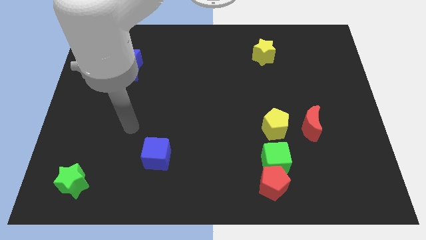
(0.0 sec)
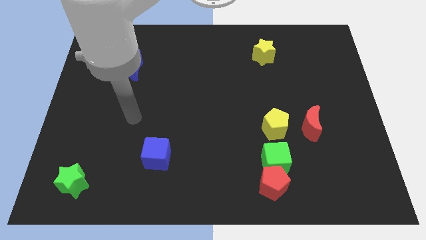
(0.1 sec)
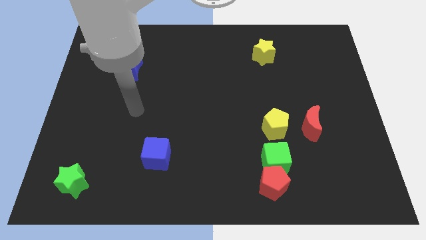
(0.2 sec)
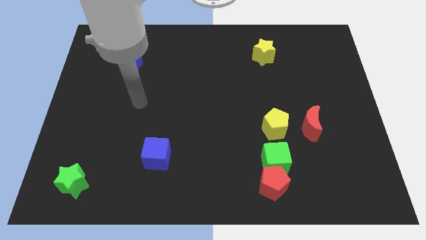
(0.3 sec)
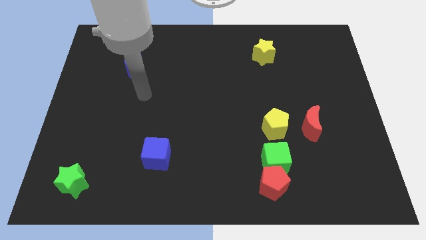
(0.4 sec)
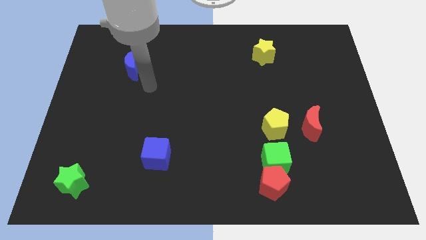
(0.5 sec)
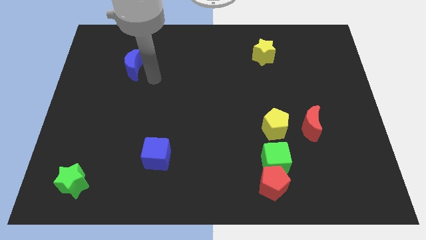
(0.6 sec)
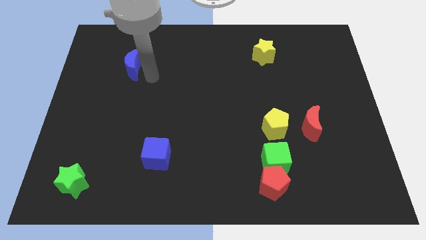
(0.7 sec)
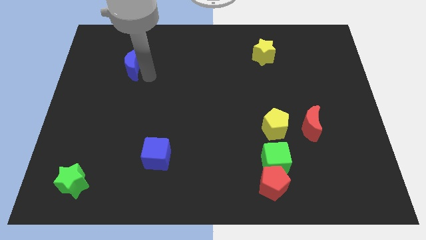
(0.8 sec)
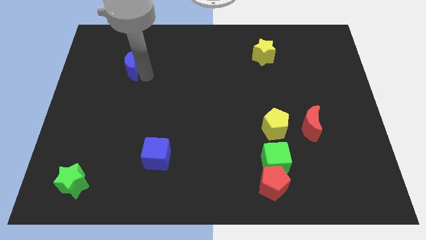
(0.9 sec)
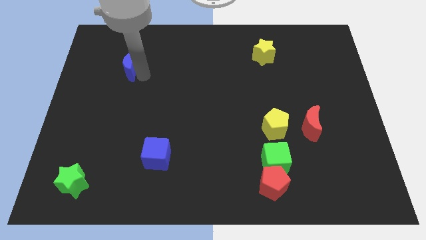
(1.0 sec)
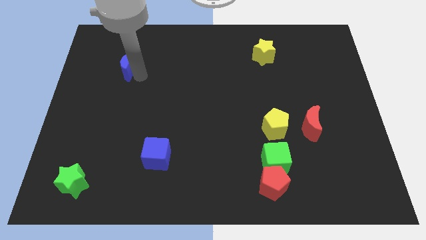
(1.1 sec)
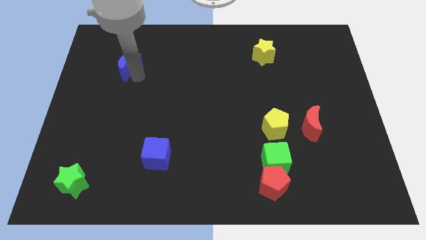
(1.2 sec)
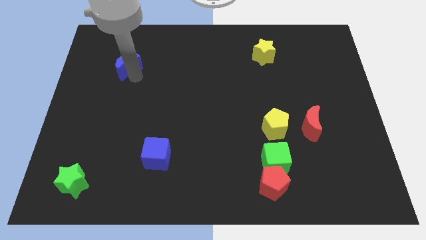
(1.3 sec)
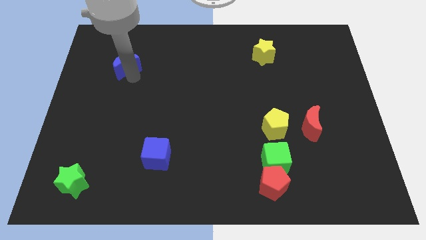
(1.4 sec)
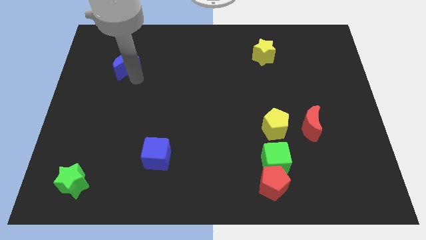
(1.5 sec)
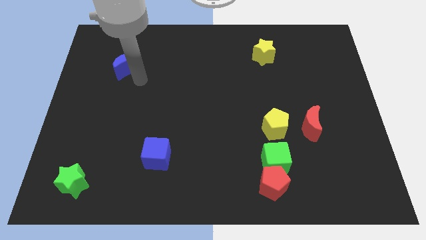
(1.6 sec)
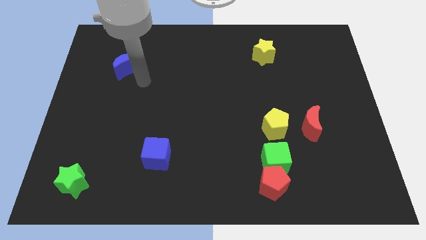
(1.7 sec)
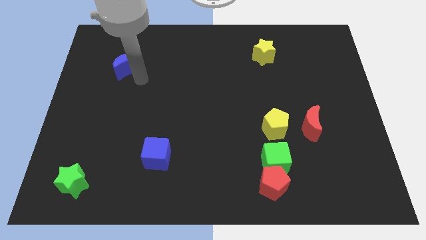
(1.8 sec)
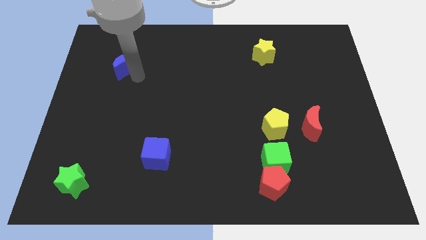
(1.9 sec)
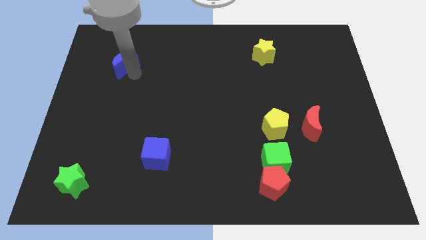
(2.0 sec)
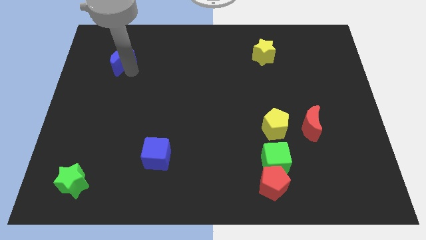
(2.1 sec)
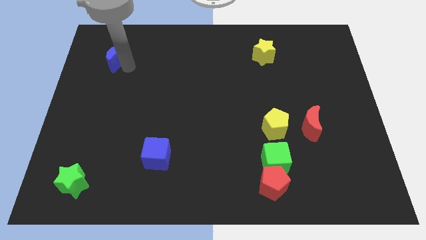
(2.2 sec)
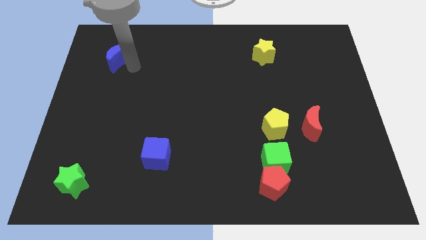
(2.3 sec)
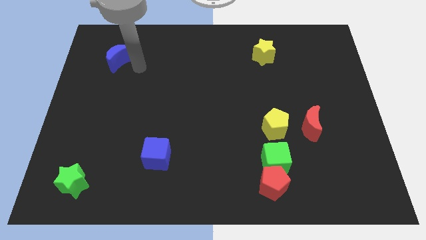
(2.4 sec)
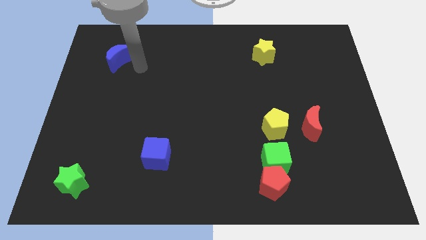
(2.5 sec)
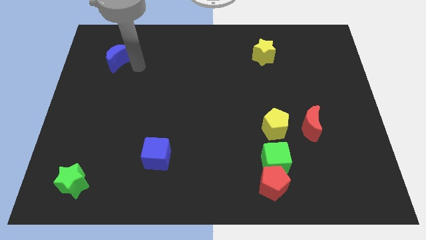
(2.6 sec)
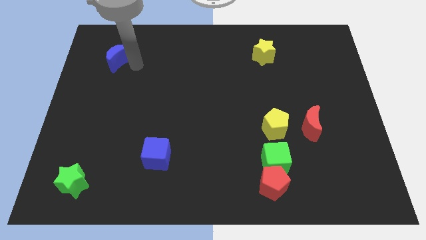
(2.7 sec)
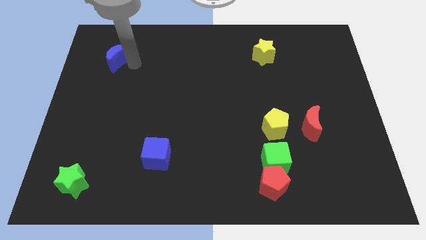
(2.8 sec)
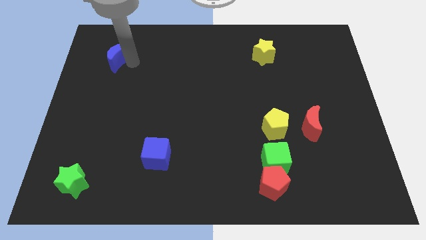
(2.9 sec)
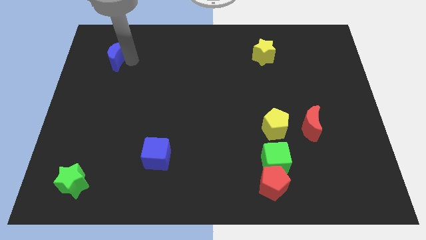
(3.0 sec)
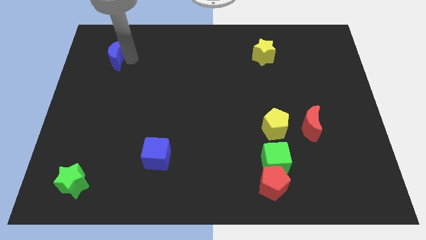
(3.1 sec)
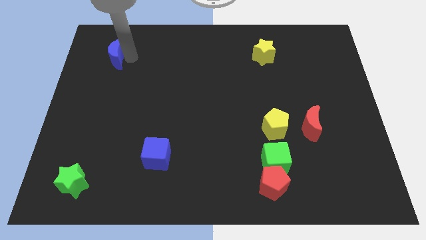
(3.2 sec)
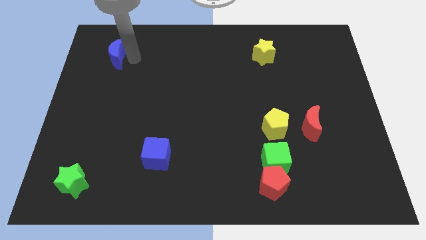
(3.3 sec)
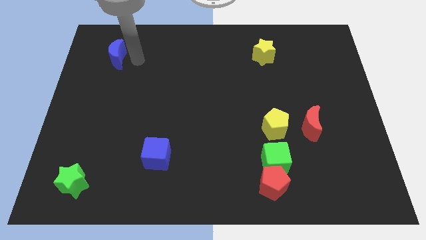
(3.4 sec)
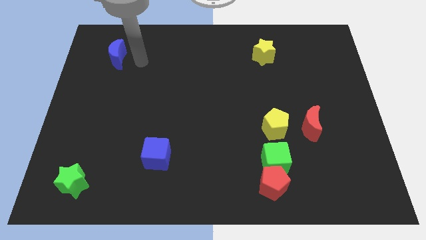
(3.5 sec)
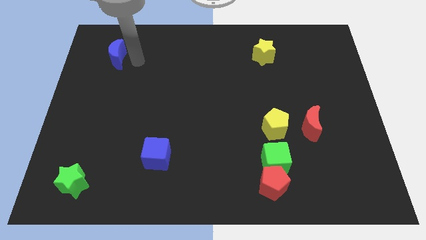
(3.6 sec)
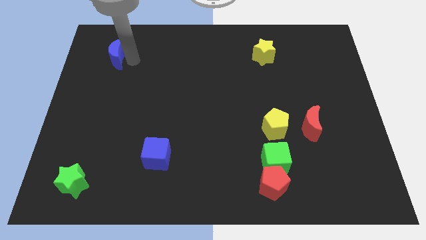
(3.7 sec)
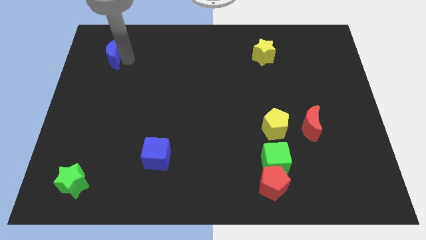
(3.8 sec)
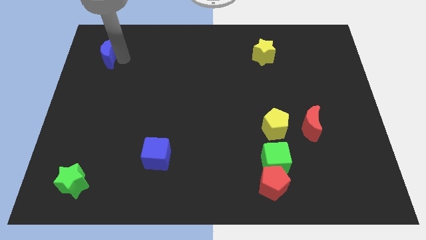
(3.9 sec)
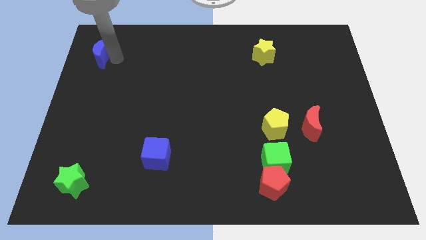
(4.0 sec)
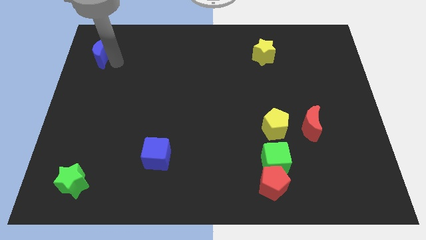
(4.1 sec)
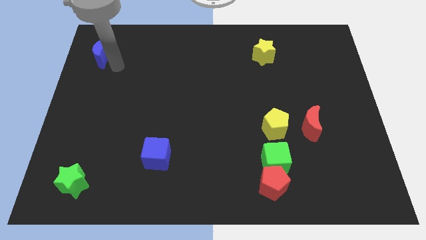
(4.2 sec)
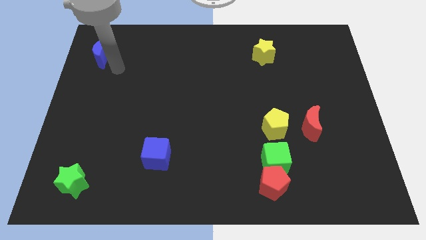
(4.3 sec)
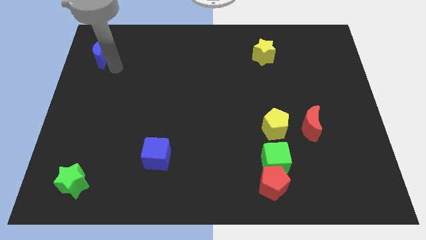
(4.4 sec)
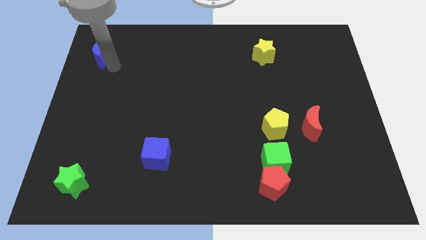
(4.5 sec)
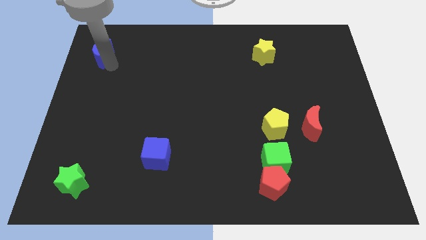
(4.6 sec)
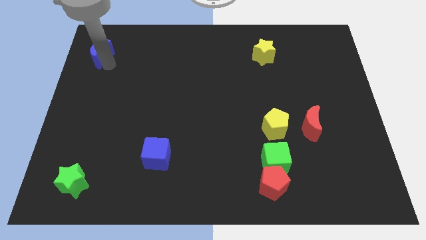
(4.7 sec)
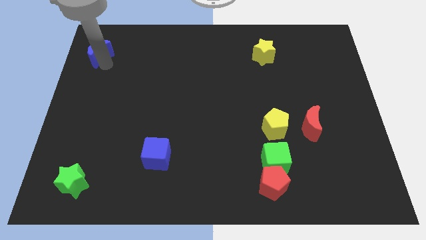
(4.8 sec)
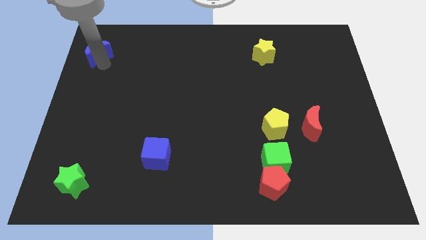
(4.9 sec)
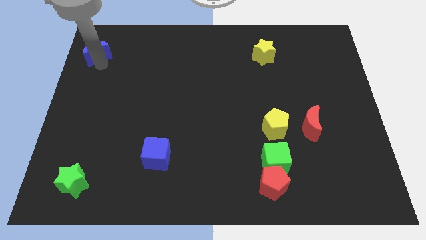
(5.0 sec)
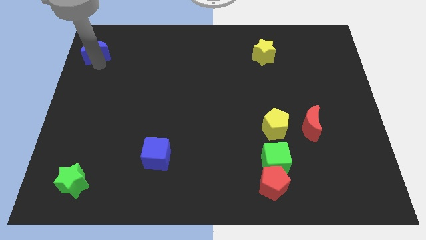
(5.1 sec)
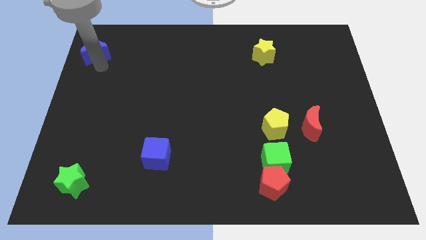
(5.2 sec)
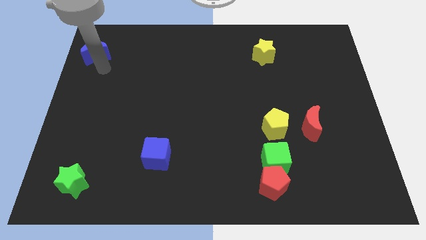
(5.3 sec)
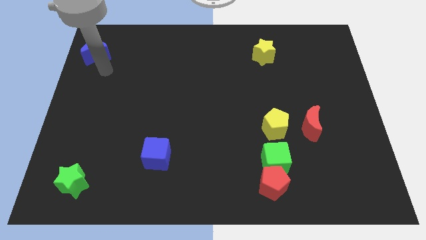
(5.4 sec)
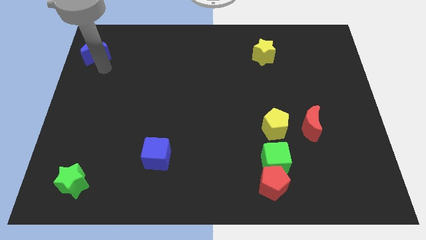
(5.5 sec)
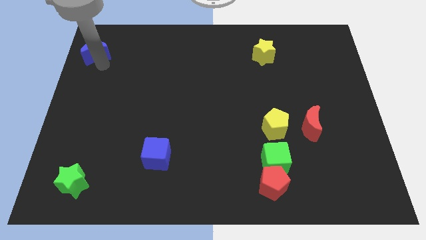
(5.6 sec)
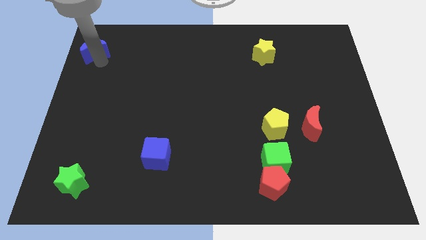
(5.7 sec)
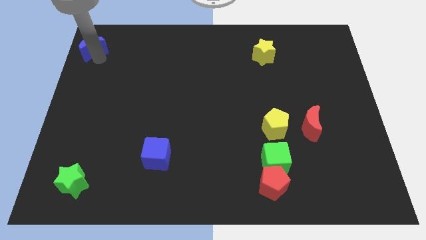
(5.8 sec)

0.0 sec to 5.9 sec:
move the blue moon to the top left of the board
